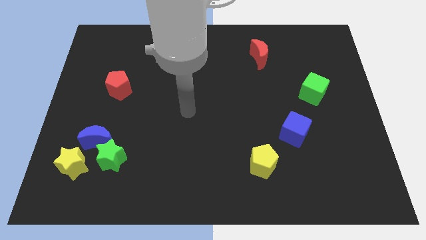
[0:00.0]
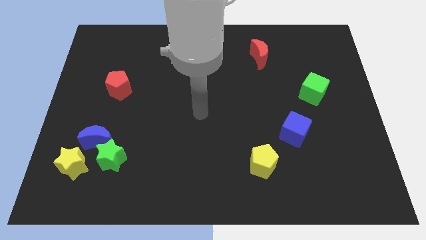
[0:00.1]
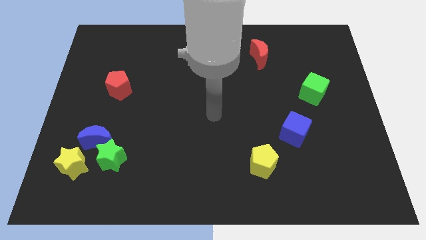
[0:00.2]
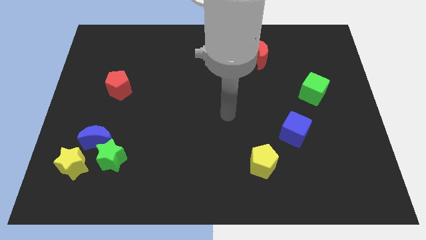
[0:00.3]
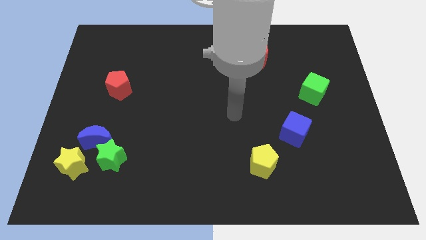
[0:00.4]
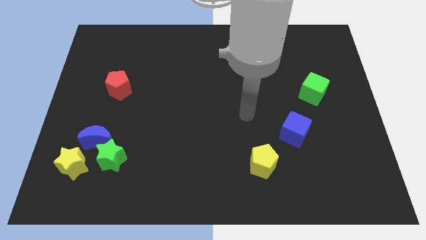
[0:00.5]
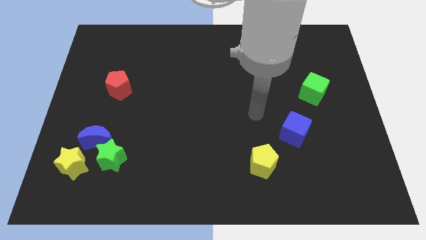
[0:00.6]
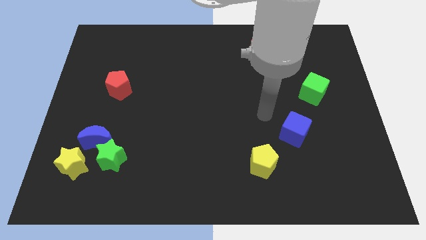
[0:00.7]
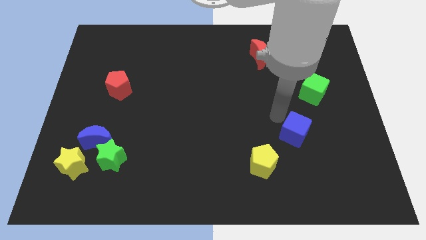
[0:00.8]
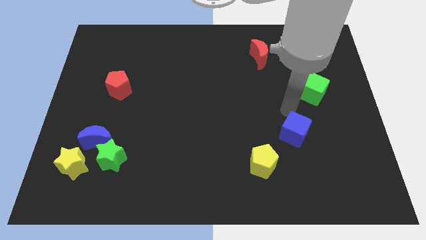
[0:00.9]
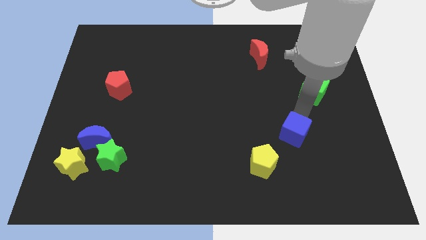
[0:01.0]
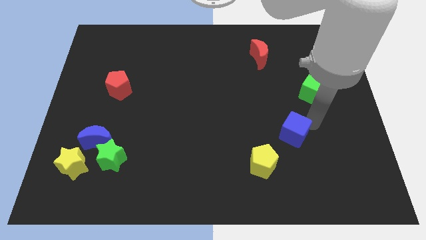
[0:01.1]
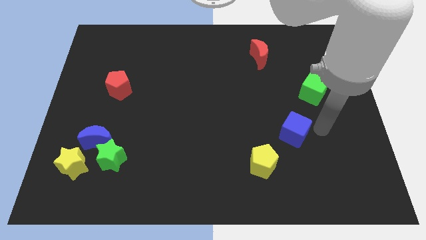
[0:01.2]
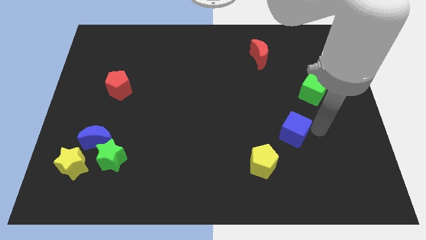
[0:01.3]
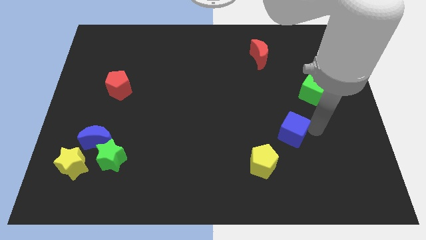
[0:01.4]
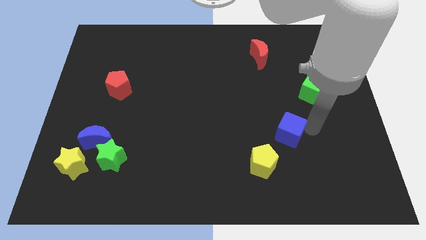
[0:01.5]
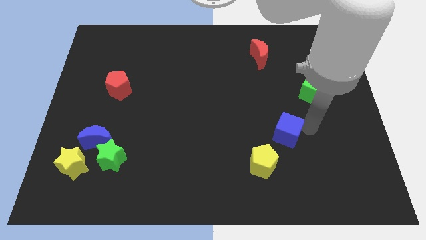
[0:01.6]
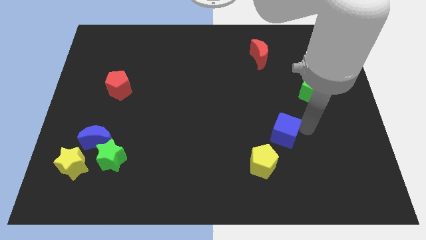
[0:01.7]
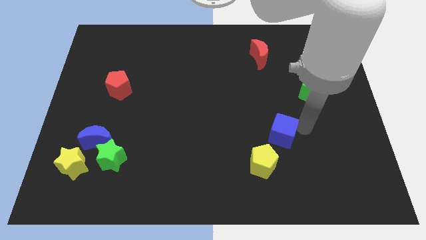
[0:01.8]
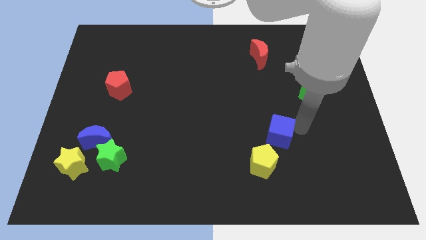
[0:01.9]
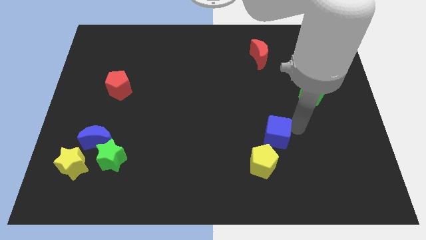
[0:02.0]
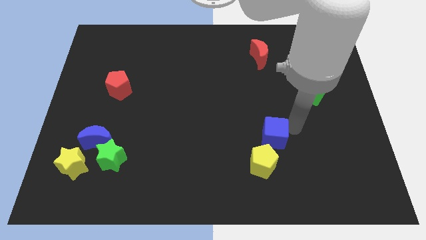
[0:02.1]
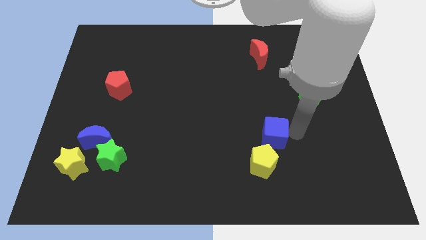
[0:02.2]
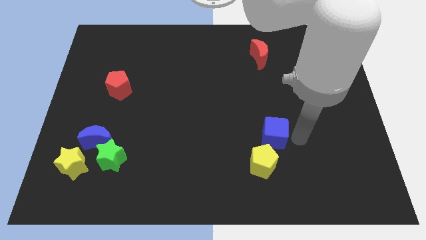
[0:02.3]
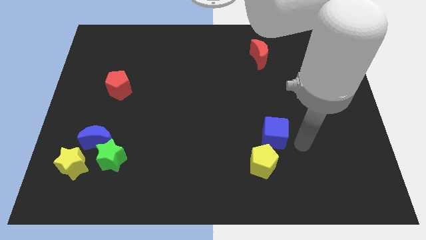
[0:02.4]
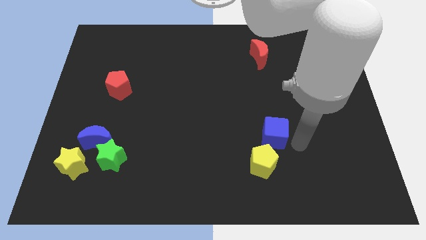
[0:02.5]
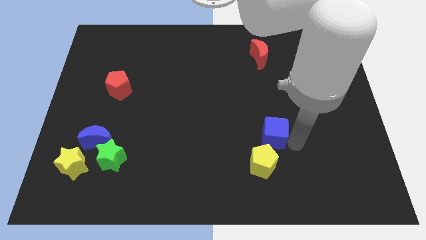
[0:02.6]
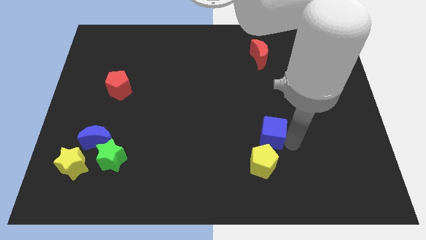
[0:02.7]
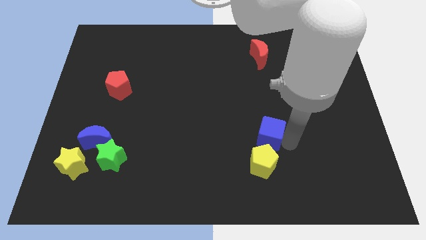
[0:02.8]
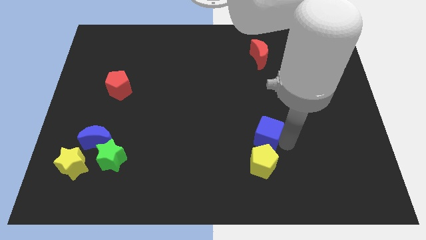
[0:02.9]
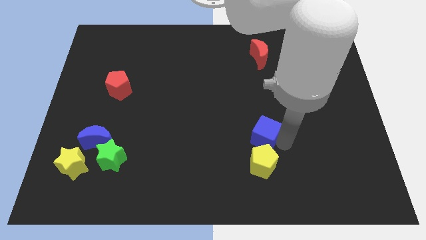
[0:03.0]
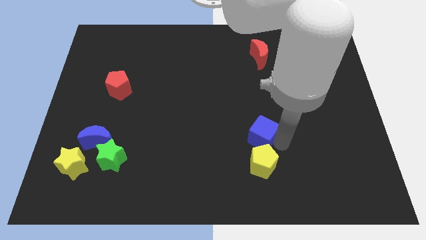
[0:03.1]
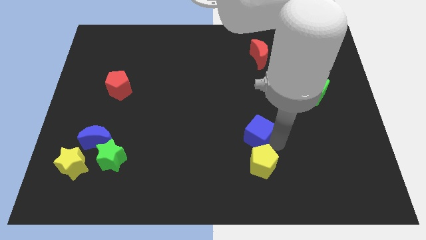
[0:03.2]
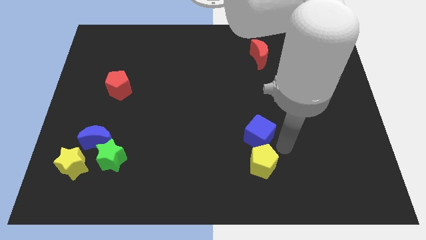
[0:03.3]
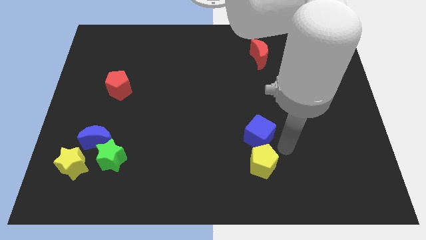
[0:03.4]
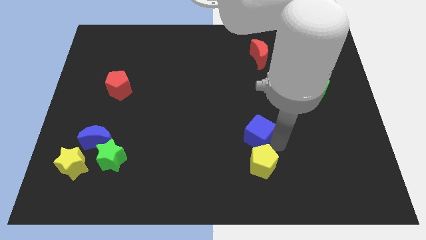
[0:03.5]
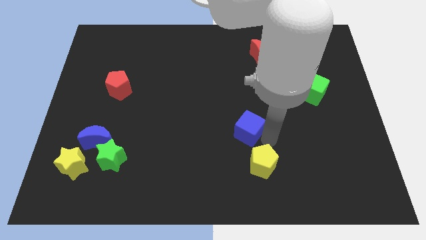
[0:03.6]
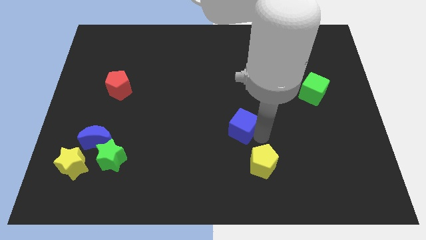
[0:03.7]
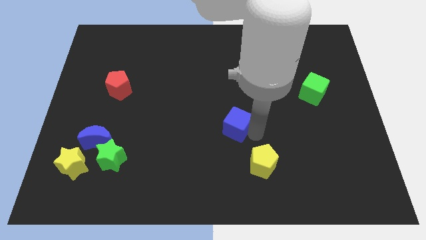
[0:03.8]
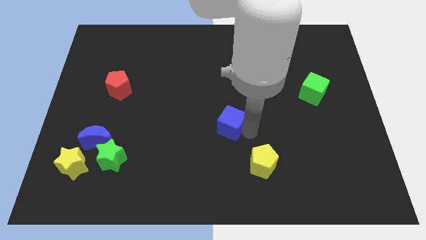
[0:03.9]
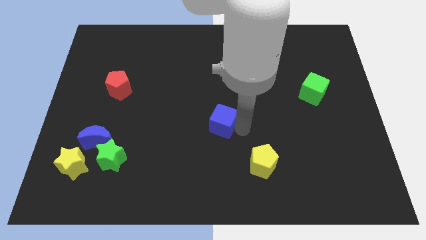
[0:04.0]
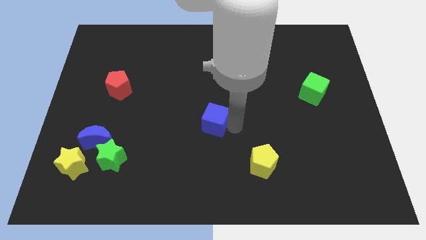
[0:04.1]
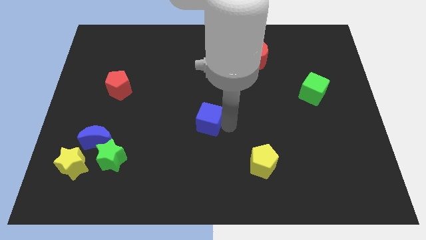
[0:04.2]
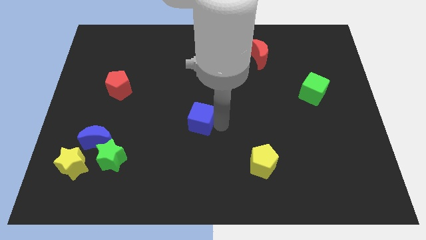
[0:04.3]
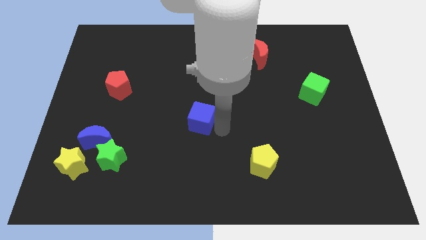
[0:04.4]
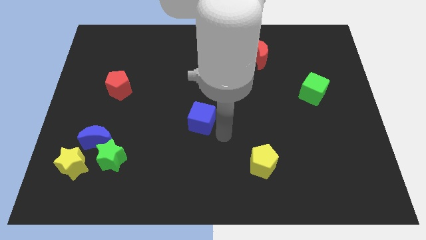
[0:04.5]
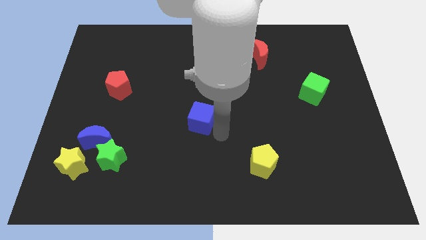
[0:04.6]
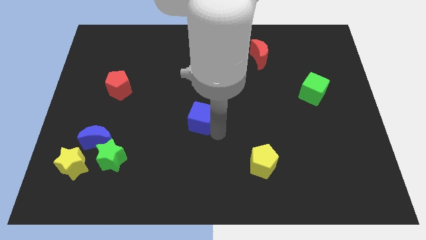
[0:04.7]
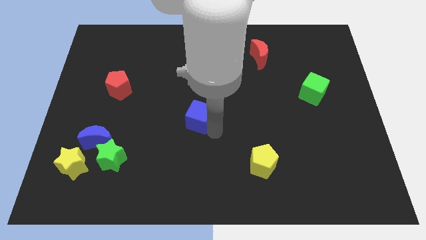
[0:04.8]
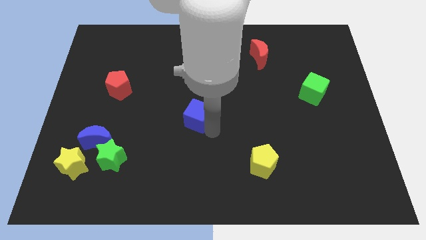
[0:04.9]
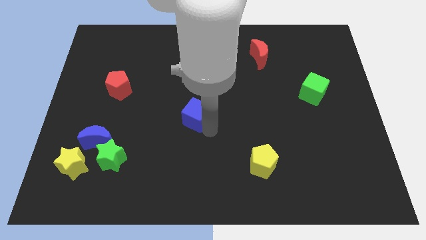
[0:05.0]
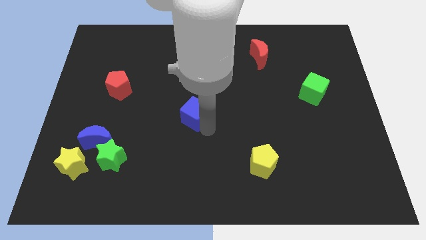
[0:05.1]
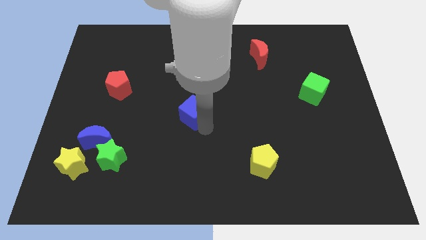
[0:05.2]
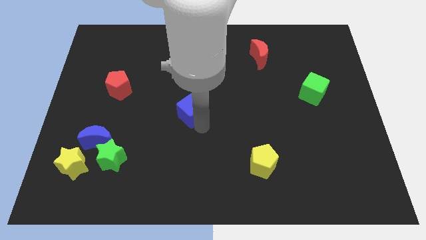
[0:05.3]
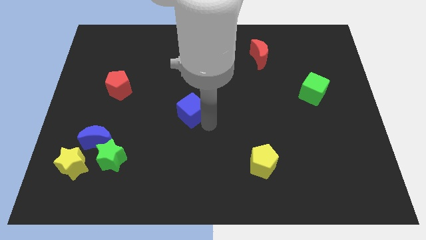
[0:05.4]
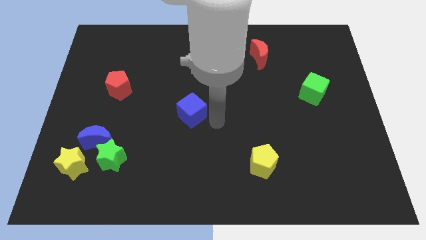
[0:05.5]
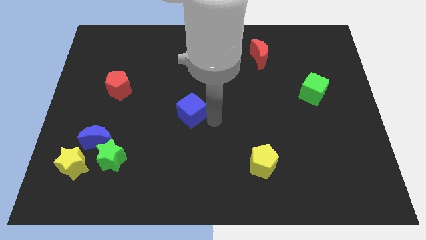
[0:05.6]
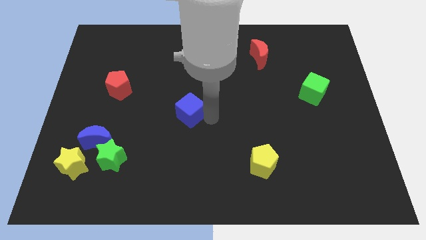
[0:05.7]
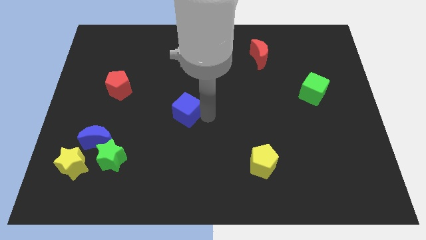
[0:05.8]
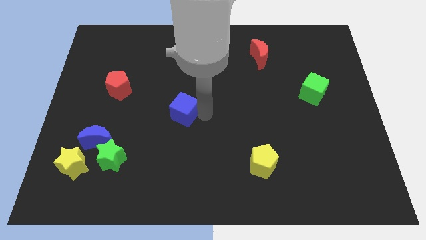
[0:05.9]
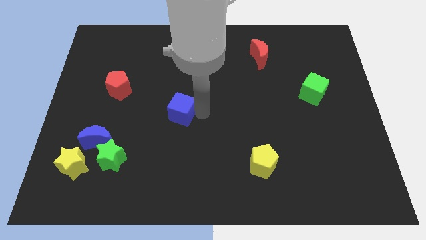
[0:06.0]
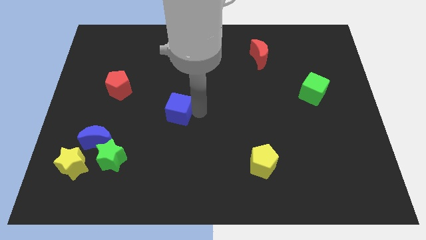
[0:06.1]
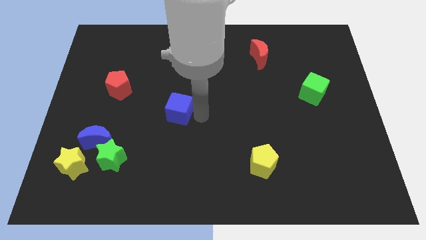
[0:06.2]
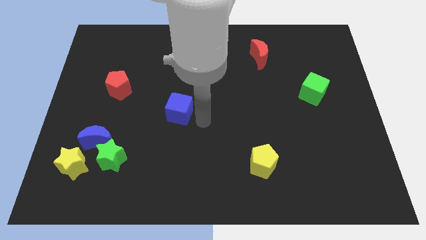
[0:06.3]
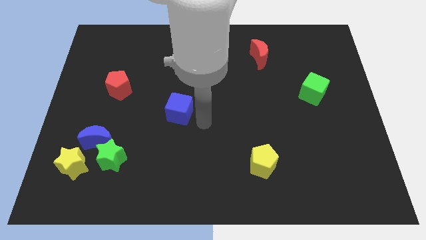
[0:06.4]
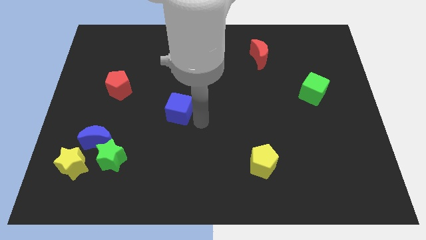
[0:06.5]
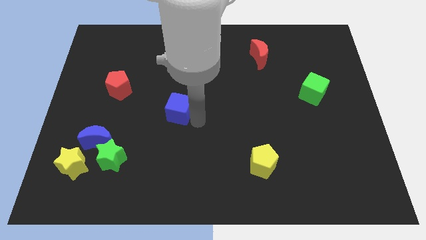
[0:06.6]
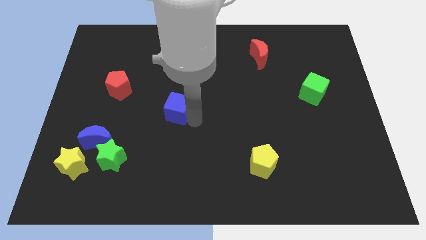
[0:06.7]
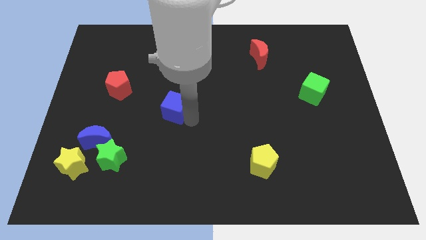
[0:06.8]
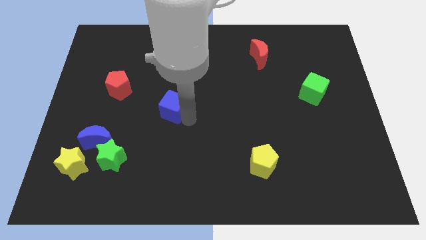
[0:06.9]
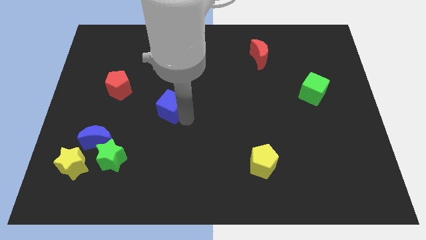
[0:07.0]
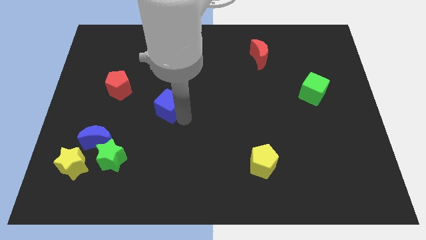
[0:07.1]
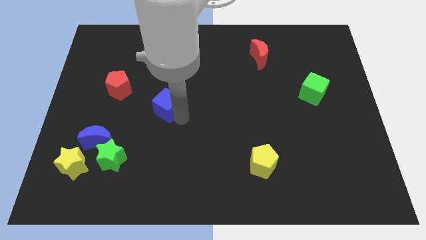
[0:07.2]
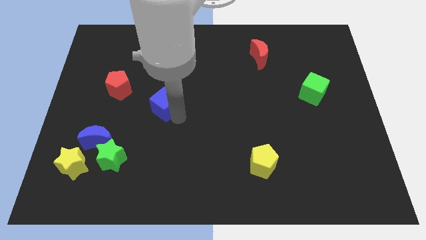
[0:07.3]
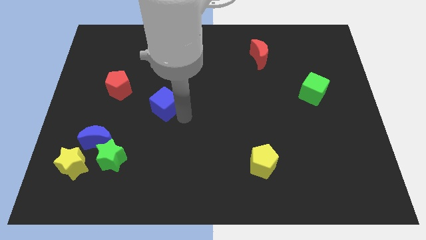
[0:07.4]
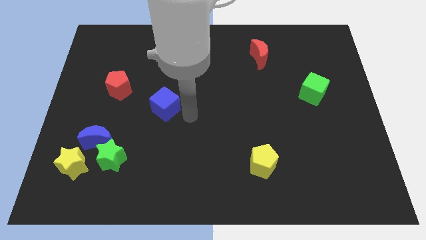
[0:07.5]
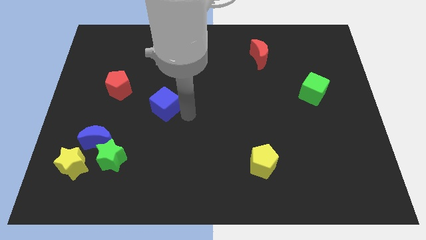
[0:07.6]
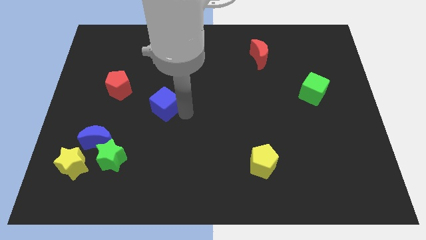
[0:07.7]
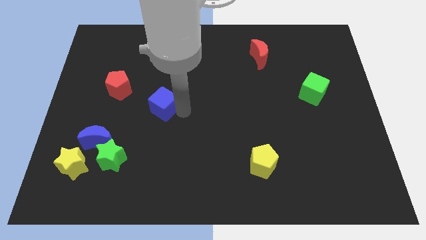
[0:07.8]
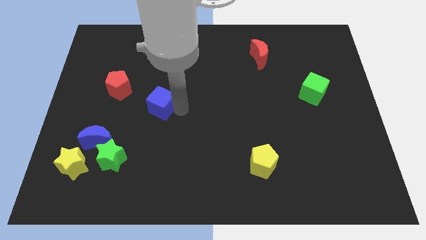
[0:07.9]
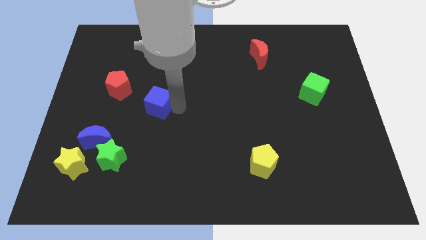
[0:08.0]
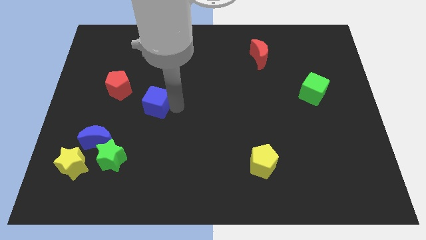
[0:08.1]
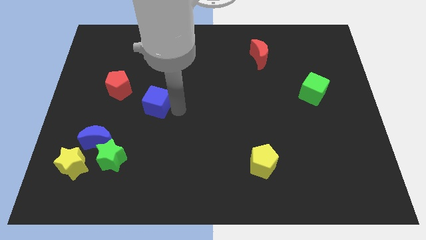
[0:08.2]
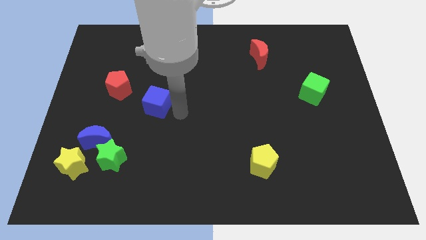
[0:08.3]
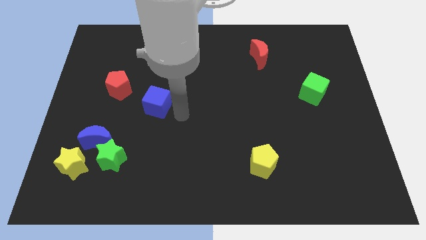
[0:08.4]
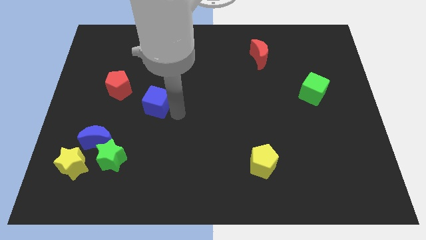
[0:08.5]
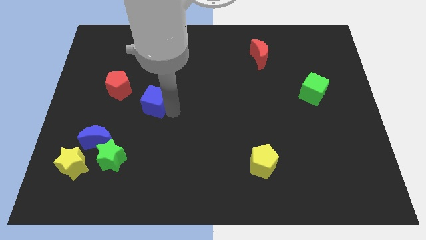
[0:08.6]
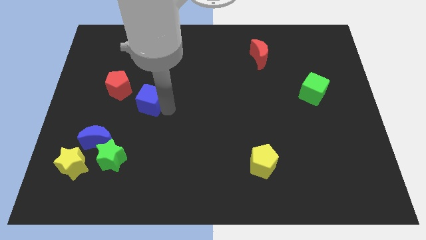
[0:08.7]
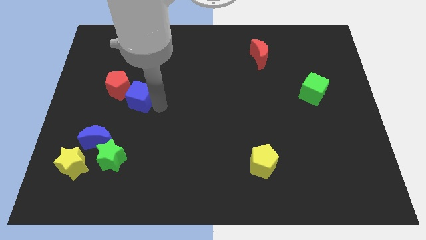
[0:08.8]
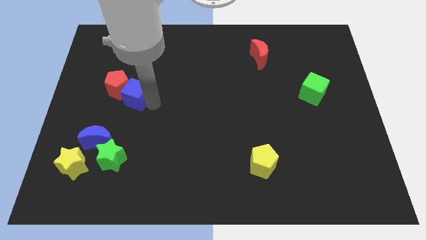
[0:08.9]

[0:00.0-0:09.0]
put the blue cube to the red pentagon
